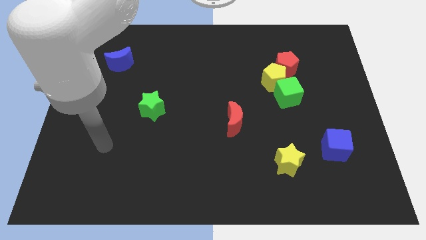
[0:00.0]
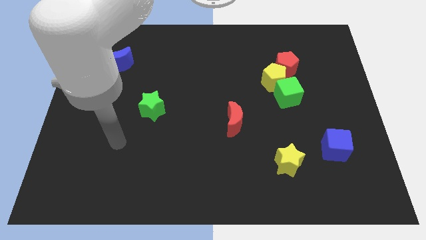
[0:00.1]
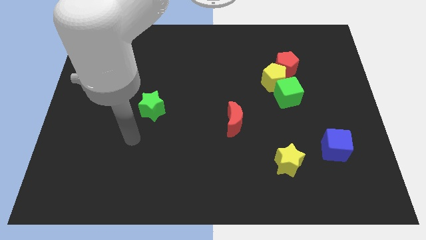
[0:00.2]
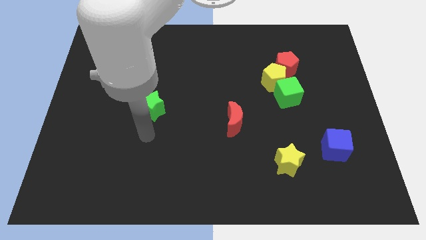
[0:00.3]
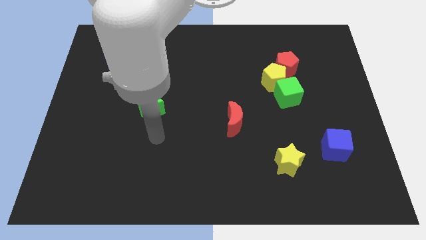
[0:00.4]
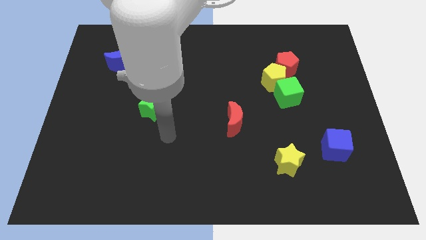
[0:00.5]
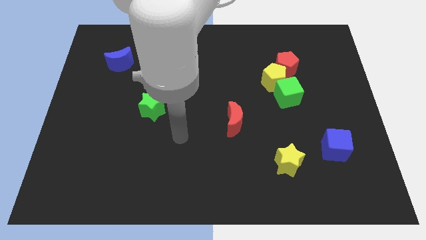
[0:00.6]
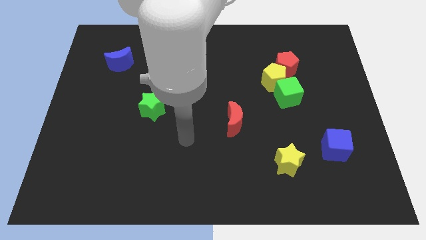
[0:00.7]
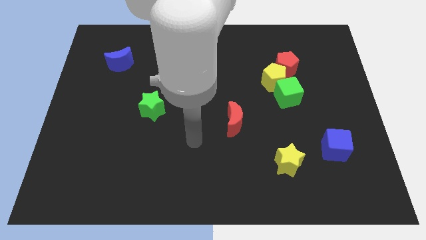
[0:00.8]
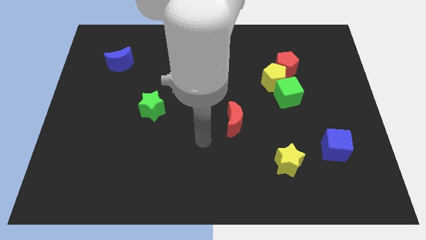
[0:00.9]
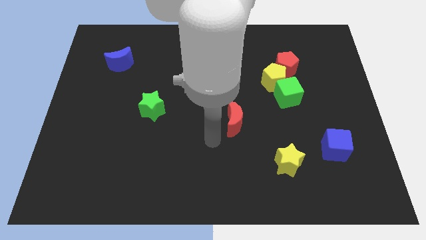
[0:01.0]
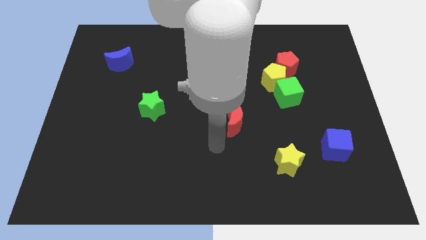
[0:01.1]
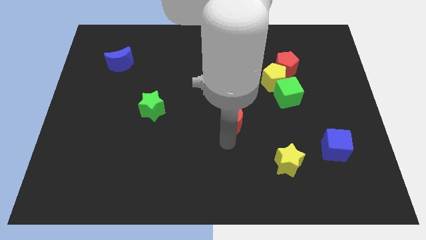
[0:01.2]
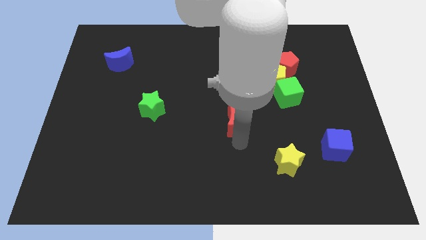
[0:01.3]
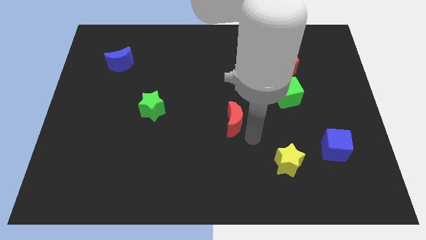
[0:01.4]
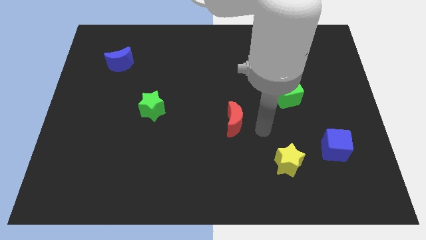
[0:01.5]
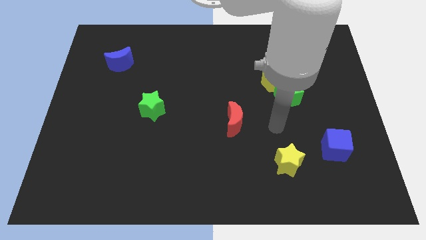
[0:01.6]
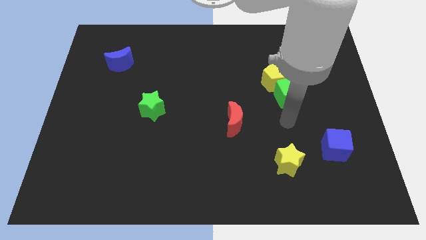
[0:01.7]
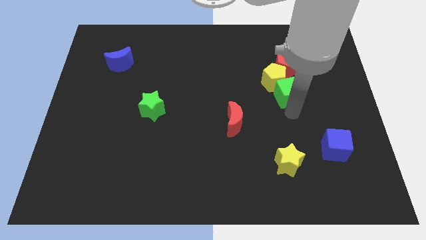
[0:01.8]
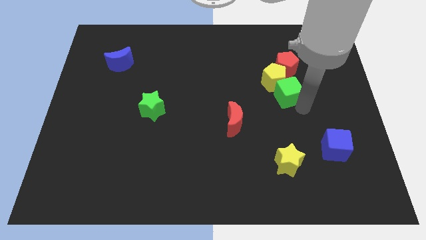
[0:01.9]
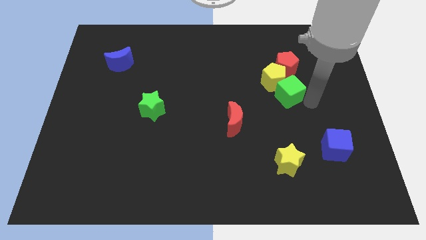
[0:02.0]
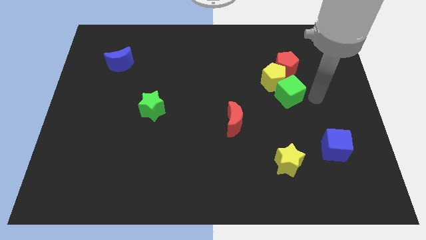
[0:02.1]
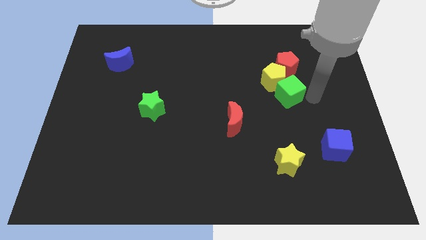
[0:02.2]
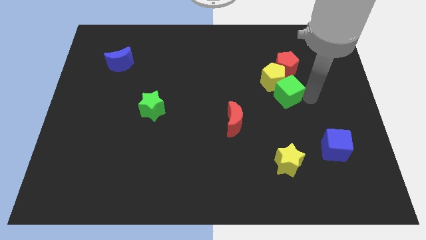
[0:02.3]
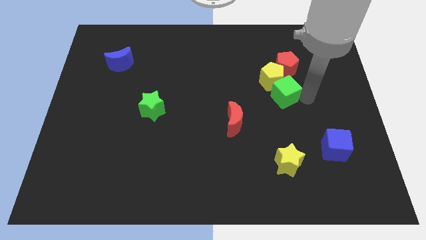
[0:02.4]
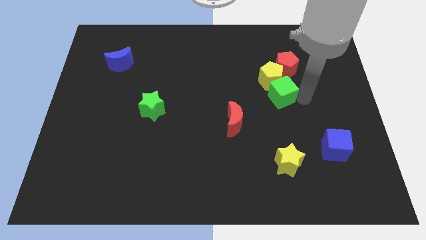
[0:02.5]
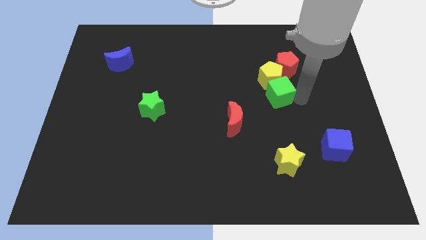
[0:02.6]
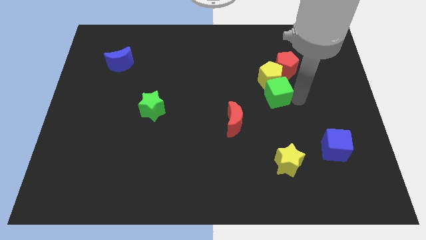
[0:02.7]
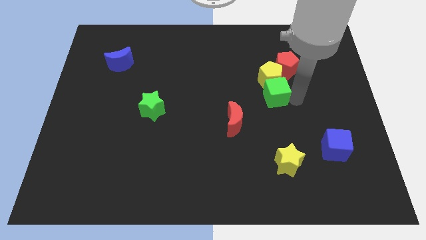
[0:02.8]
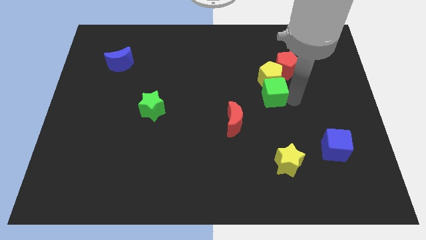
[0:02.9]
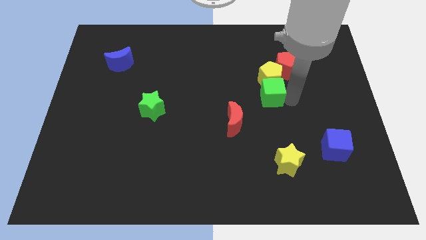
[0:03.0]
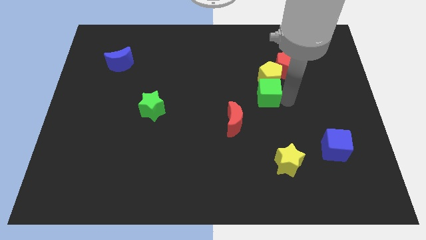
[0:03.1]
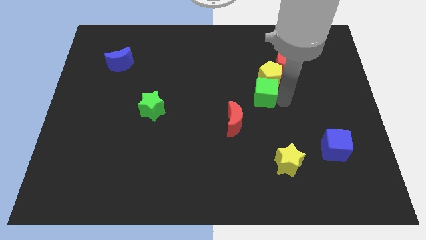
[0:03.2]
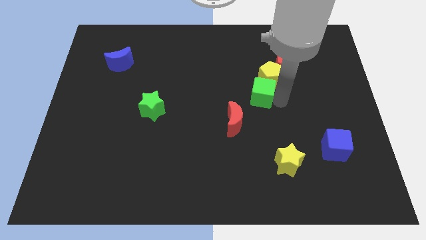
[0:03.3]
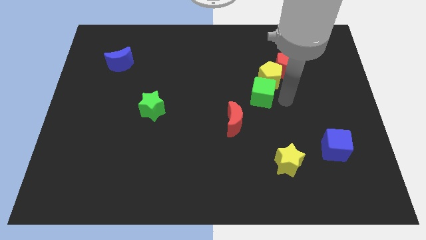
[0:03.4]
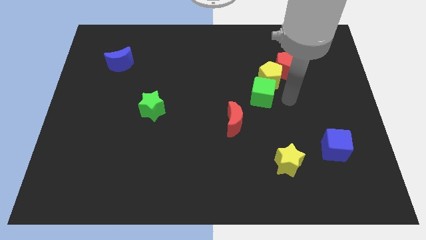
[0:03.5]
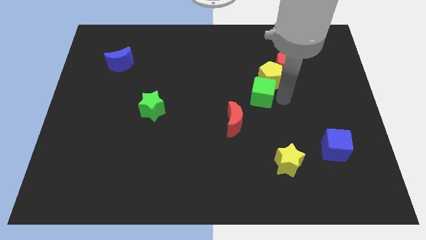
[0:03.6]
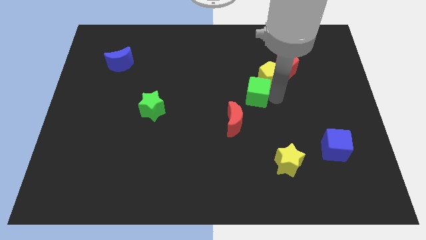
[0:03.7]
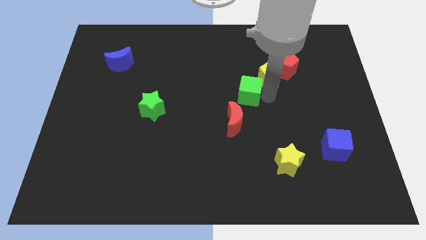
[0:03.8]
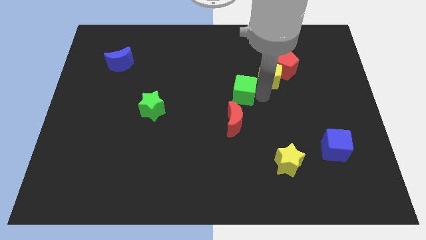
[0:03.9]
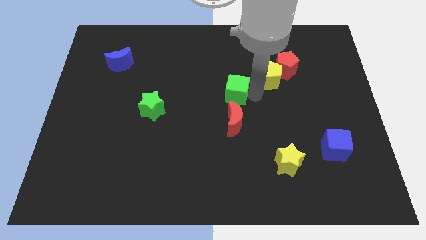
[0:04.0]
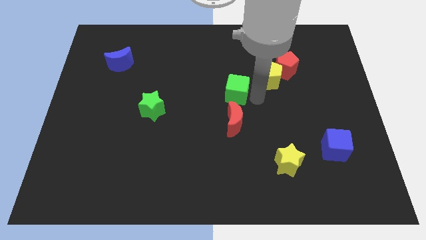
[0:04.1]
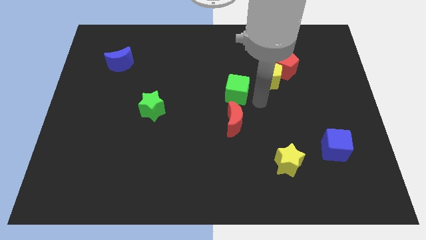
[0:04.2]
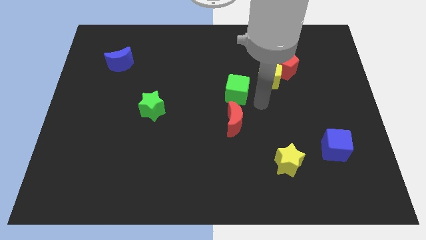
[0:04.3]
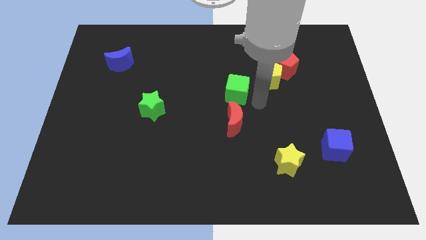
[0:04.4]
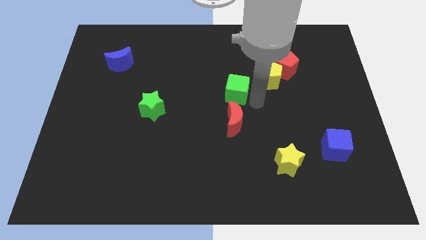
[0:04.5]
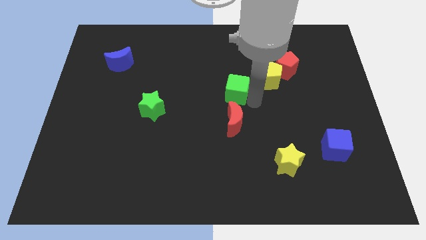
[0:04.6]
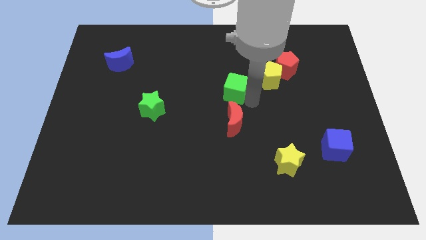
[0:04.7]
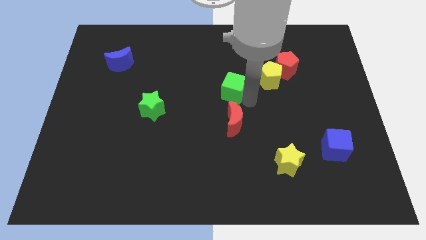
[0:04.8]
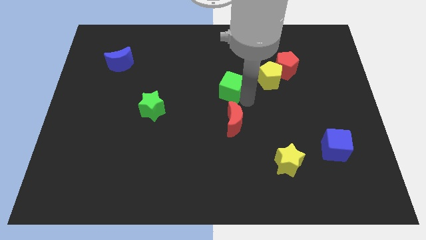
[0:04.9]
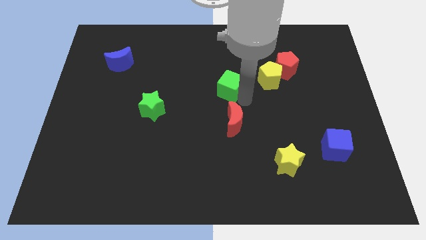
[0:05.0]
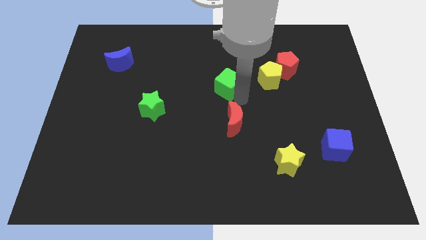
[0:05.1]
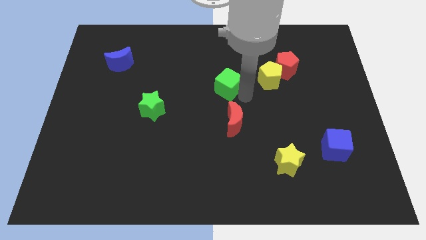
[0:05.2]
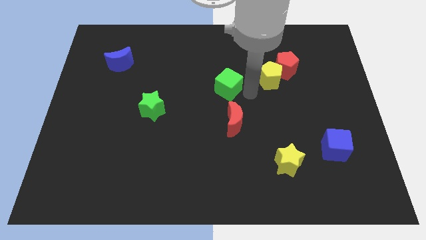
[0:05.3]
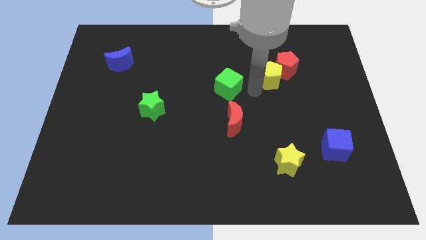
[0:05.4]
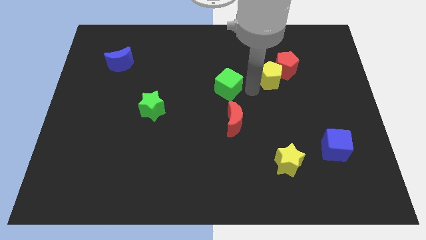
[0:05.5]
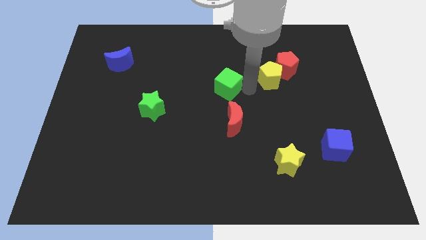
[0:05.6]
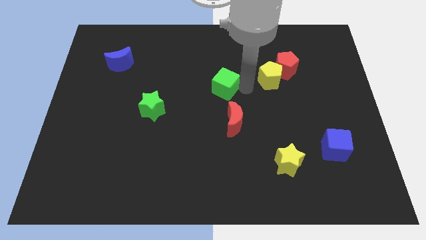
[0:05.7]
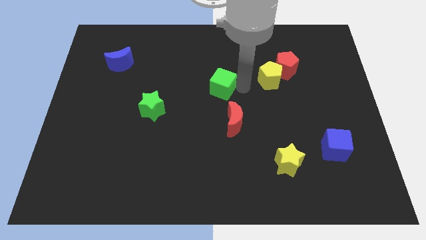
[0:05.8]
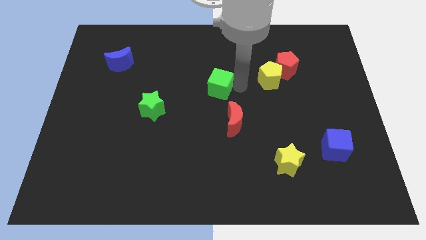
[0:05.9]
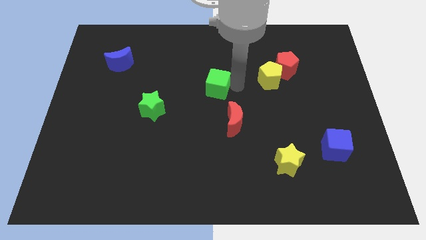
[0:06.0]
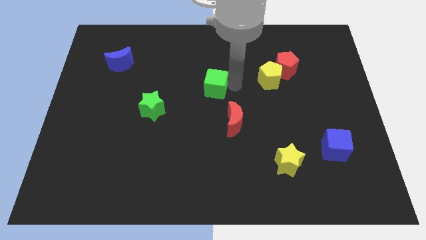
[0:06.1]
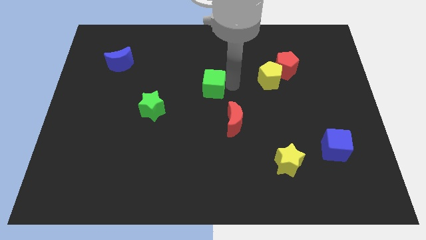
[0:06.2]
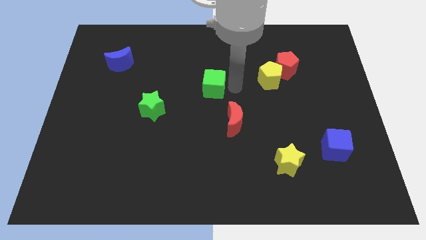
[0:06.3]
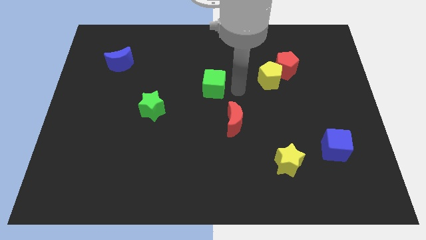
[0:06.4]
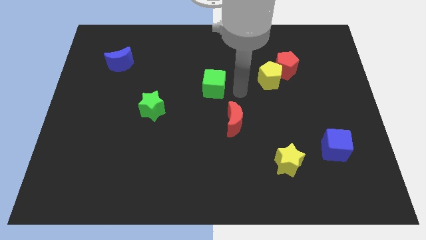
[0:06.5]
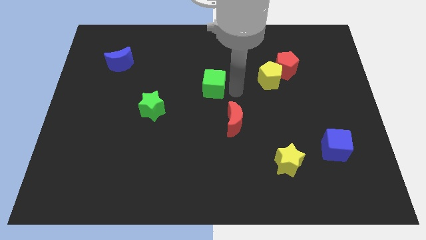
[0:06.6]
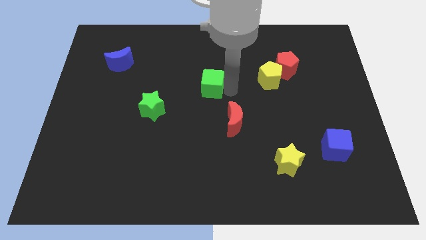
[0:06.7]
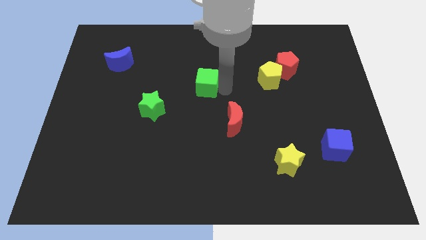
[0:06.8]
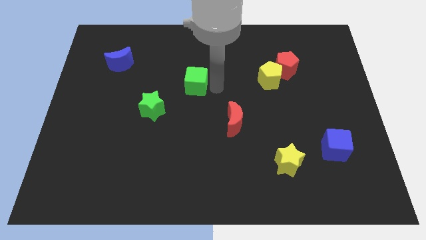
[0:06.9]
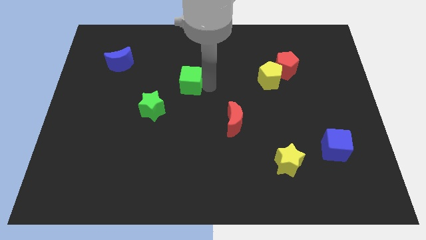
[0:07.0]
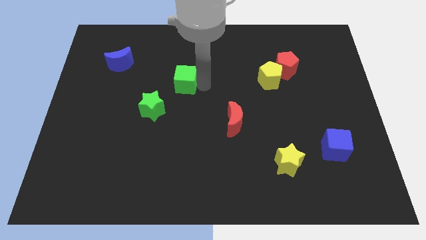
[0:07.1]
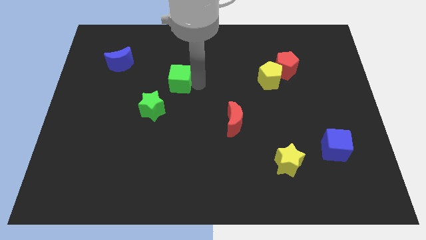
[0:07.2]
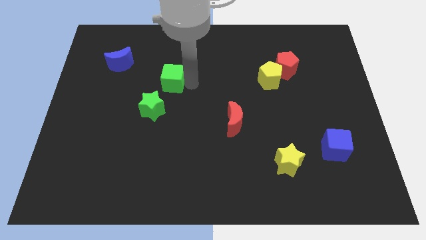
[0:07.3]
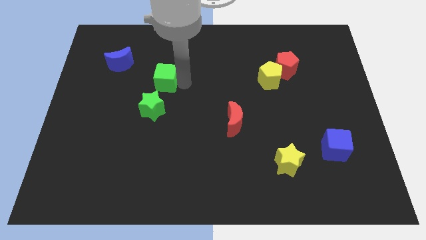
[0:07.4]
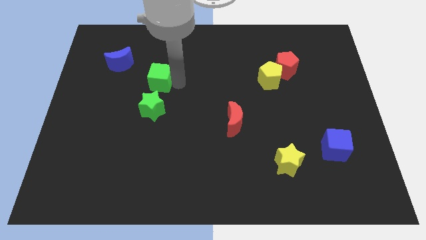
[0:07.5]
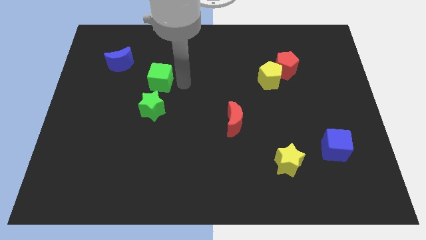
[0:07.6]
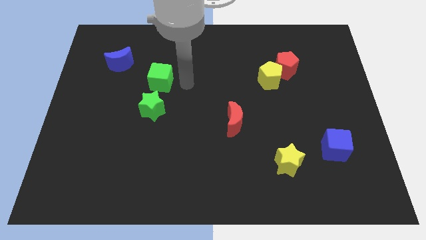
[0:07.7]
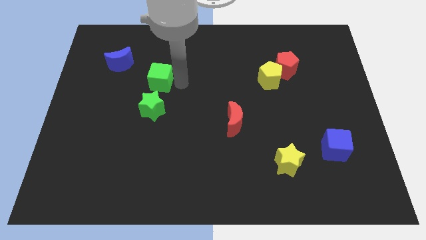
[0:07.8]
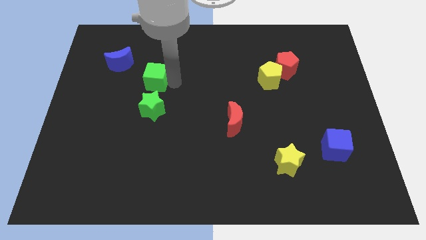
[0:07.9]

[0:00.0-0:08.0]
move the green cube to the bottom right of the blue moon
